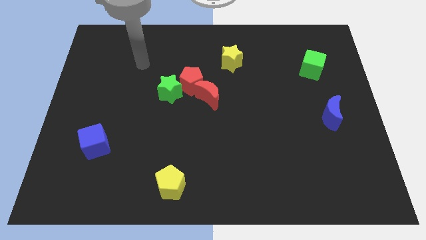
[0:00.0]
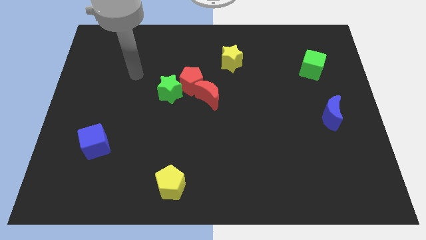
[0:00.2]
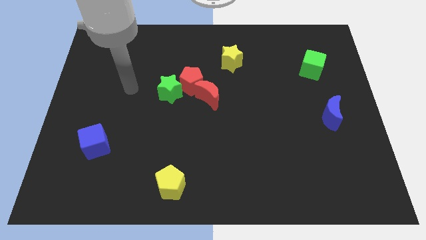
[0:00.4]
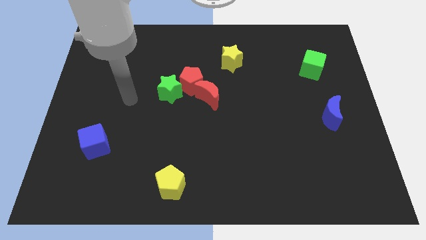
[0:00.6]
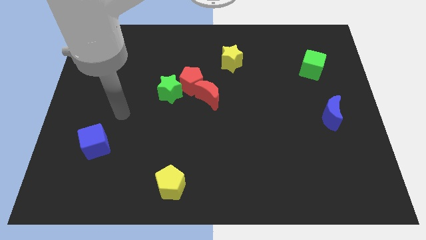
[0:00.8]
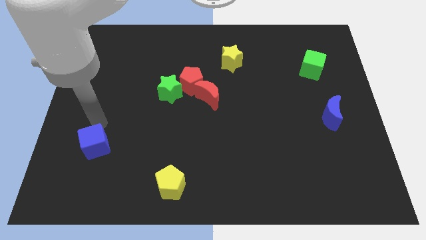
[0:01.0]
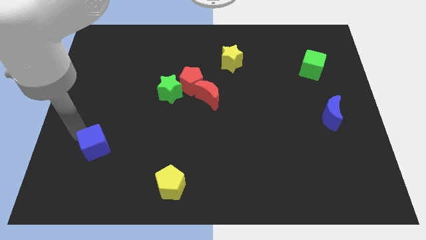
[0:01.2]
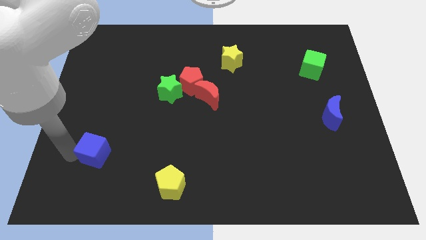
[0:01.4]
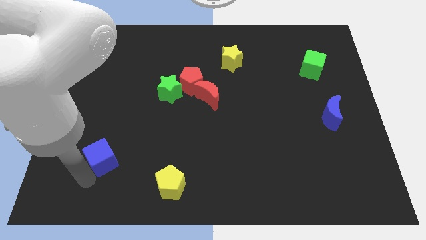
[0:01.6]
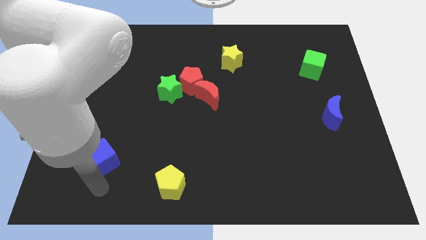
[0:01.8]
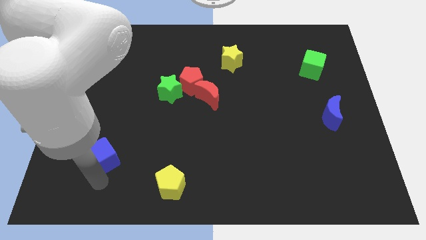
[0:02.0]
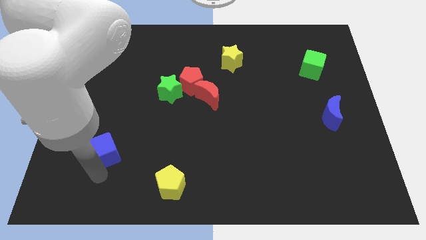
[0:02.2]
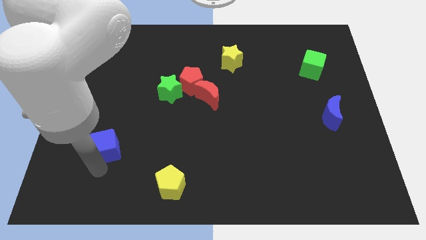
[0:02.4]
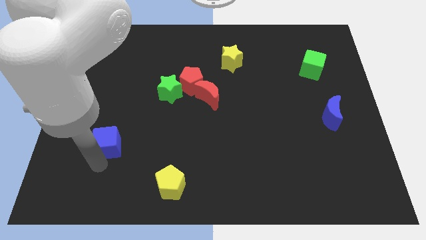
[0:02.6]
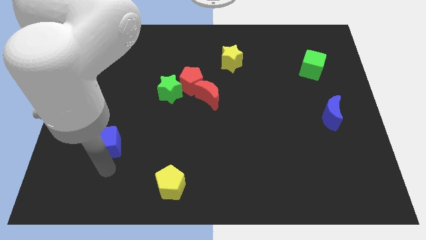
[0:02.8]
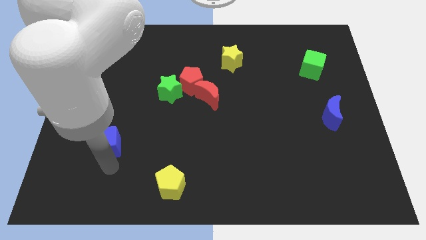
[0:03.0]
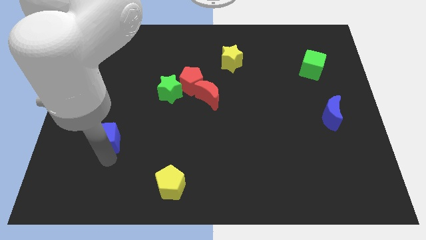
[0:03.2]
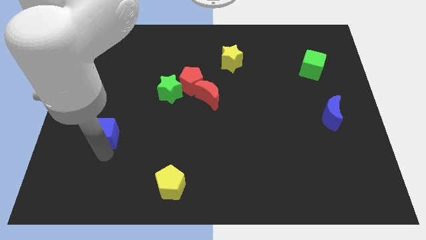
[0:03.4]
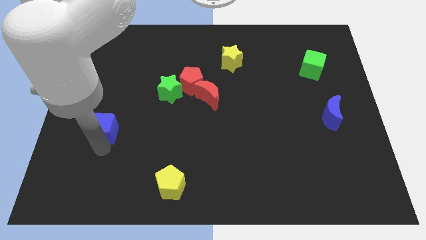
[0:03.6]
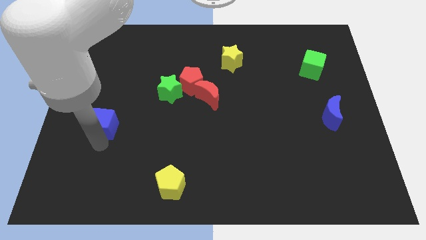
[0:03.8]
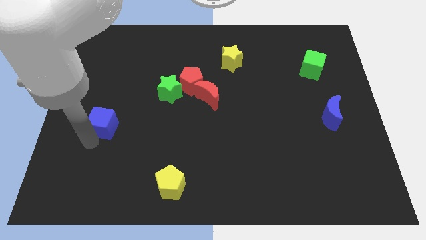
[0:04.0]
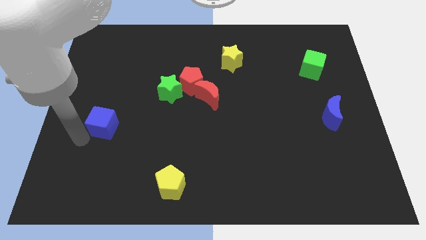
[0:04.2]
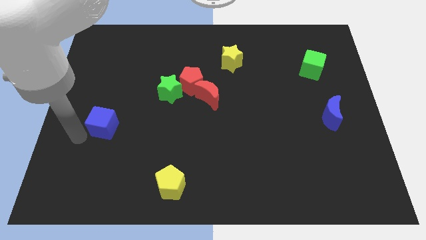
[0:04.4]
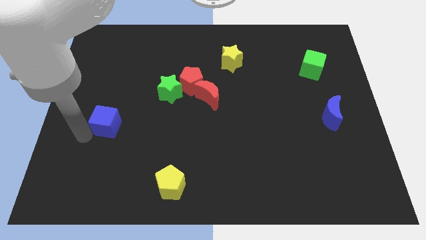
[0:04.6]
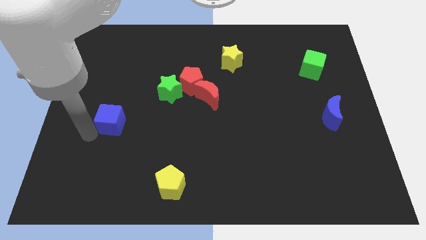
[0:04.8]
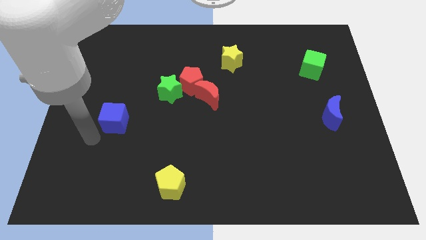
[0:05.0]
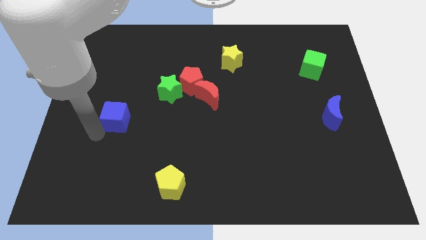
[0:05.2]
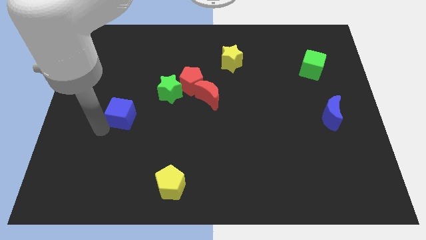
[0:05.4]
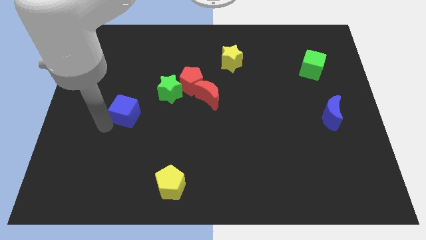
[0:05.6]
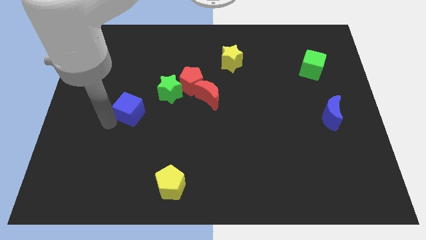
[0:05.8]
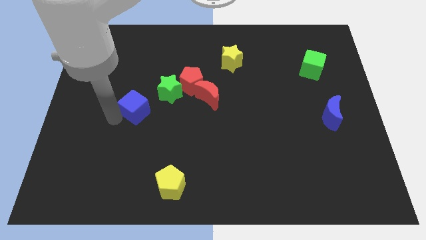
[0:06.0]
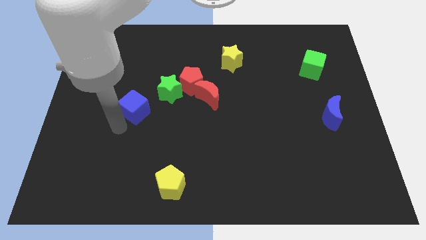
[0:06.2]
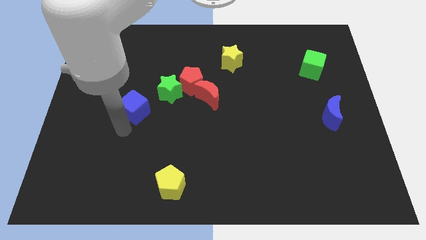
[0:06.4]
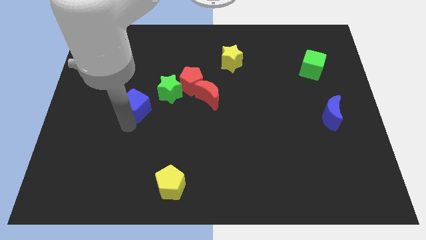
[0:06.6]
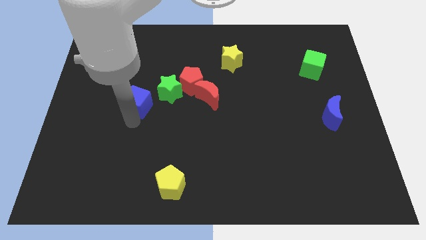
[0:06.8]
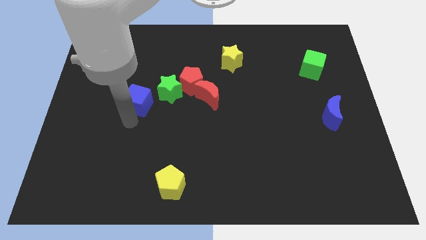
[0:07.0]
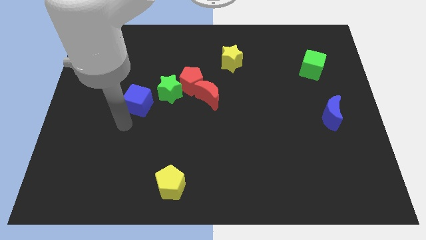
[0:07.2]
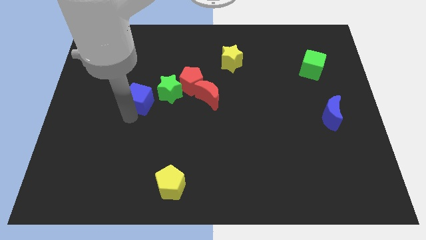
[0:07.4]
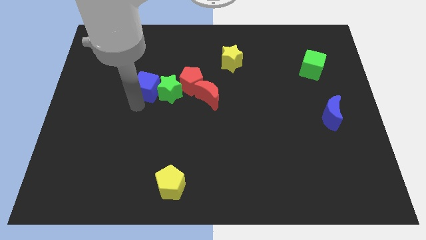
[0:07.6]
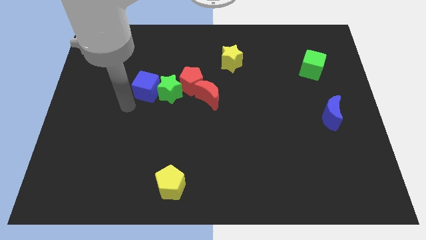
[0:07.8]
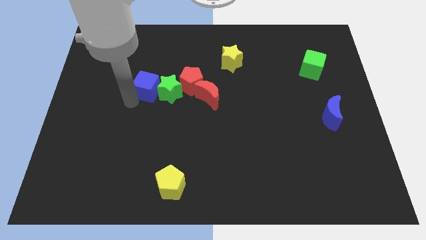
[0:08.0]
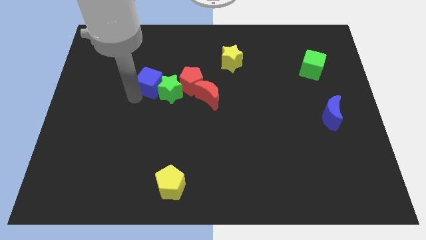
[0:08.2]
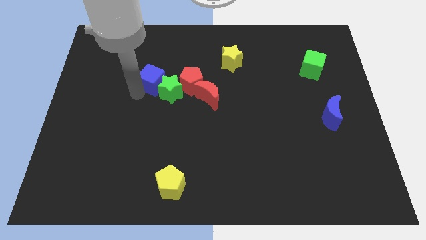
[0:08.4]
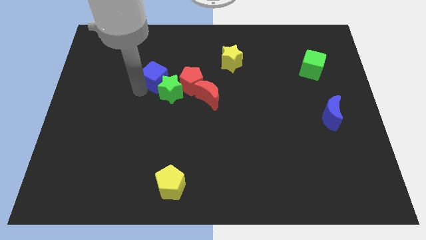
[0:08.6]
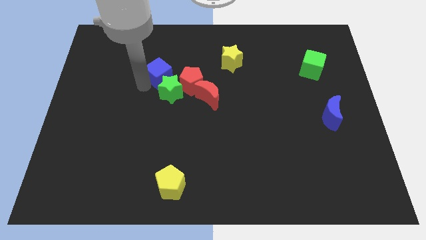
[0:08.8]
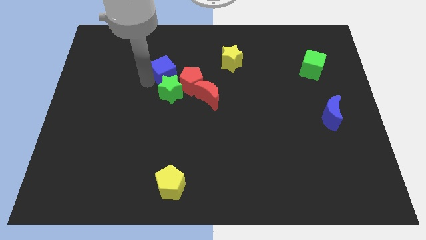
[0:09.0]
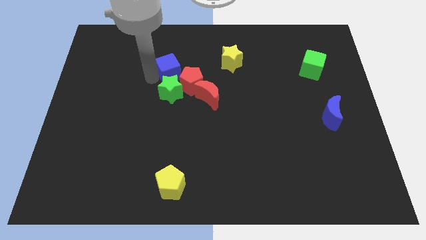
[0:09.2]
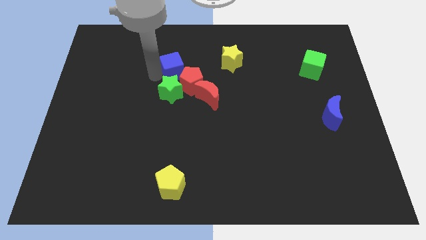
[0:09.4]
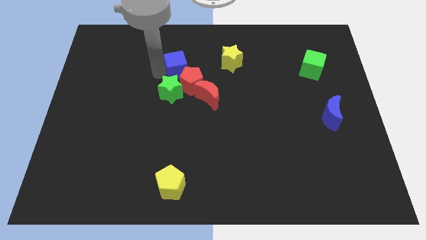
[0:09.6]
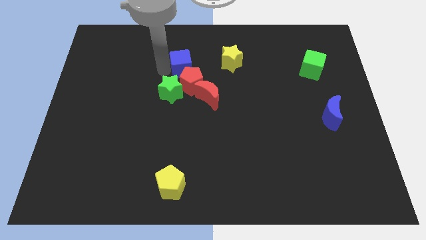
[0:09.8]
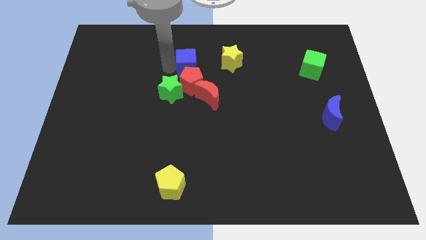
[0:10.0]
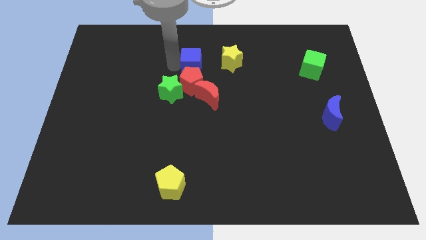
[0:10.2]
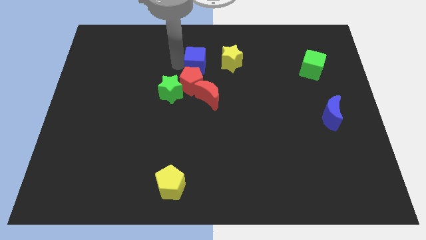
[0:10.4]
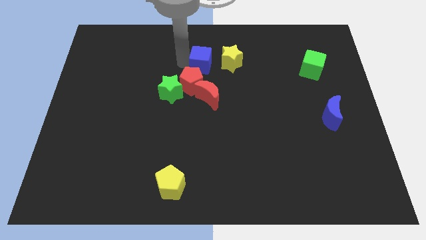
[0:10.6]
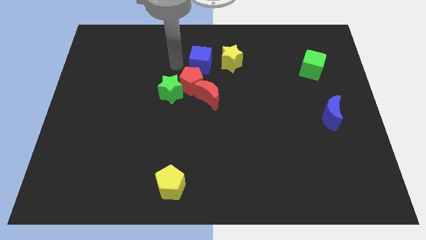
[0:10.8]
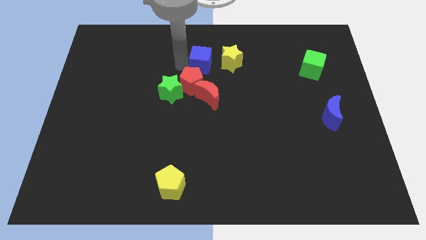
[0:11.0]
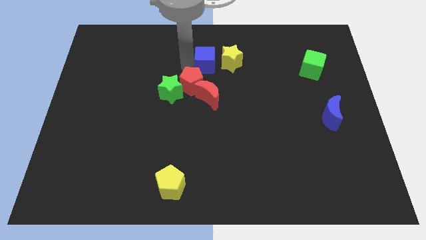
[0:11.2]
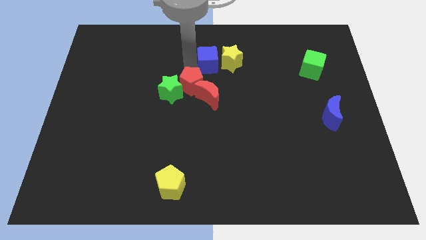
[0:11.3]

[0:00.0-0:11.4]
slide the blue cube next to the yellow star

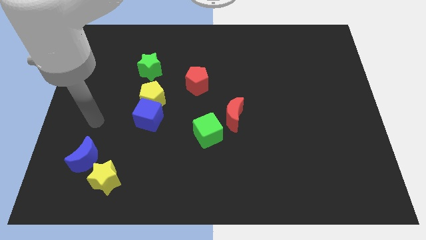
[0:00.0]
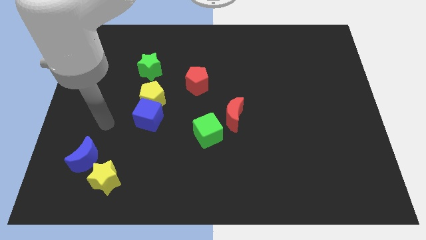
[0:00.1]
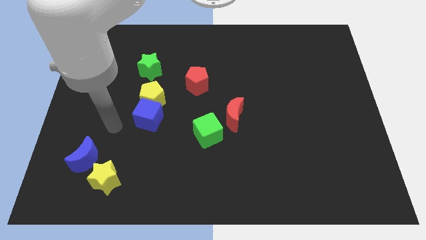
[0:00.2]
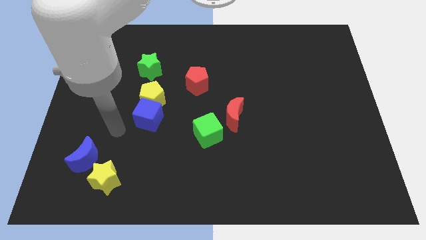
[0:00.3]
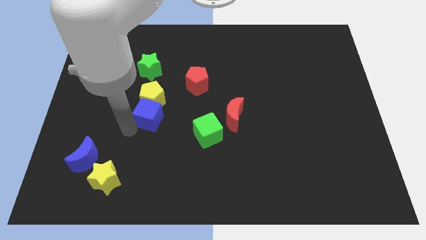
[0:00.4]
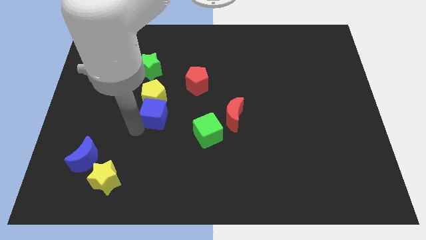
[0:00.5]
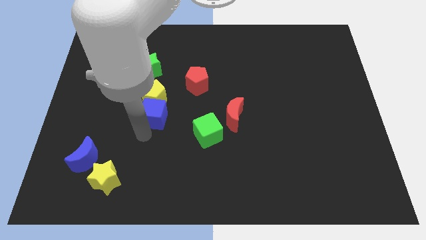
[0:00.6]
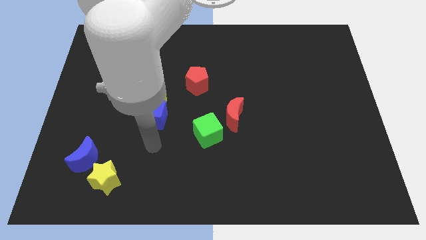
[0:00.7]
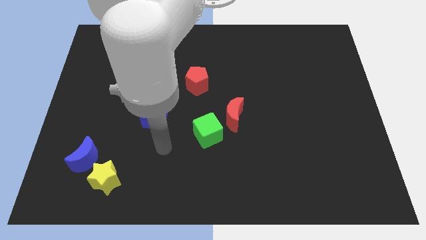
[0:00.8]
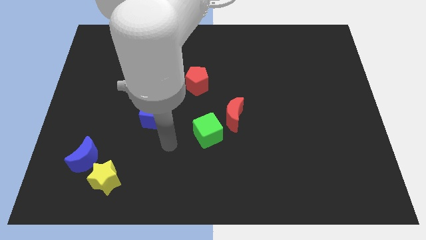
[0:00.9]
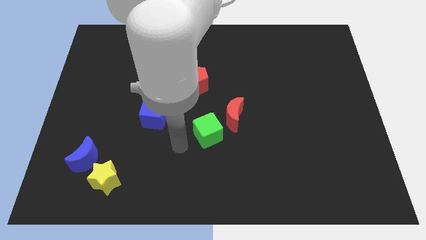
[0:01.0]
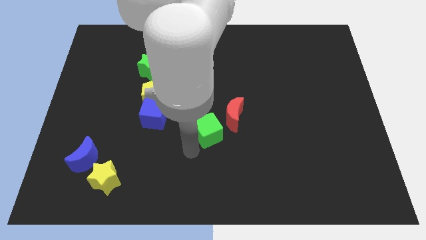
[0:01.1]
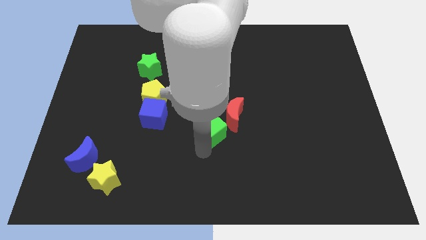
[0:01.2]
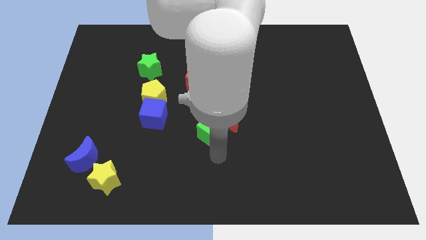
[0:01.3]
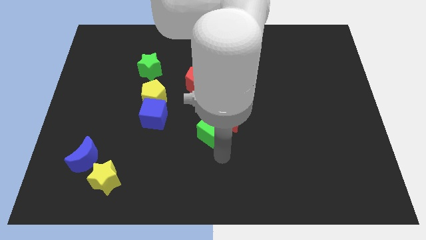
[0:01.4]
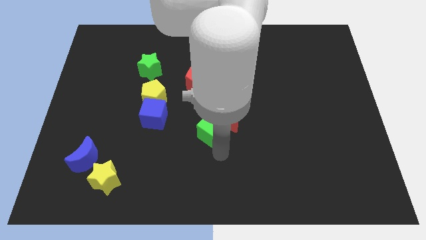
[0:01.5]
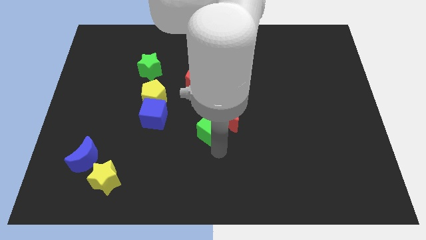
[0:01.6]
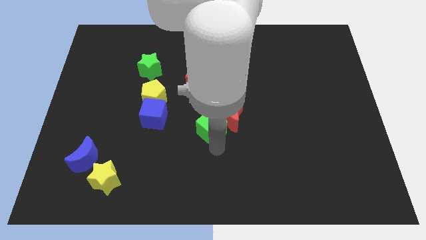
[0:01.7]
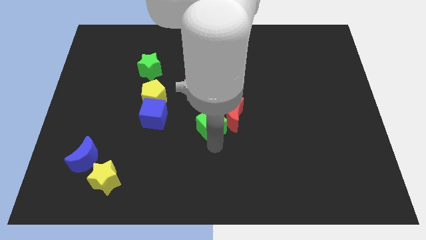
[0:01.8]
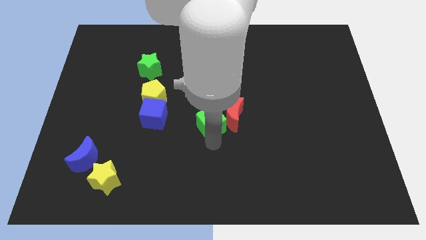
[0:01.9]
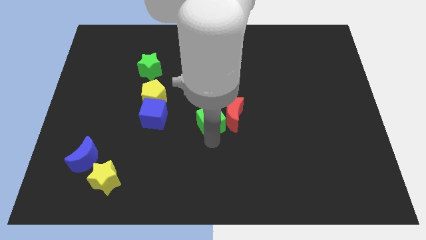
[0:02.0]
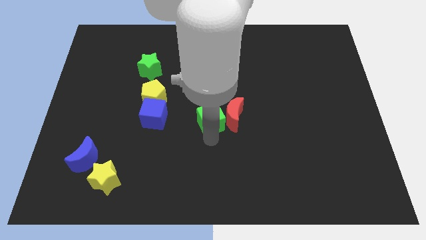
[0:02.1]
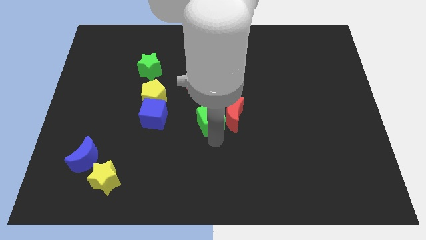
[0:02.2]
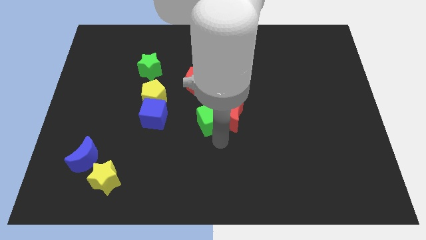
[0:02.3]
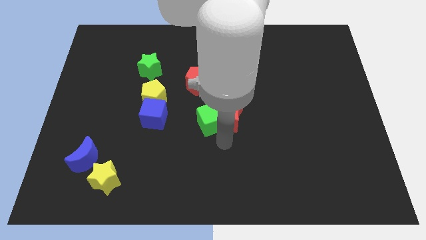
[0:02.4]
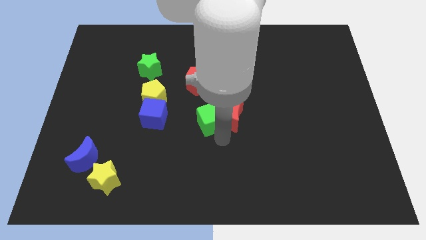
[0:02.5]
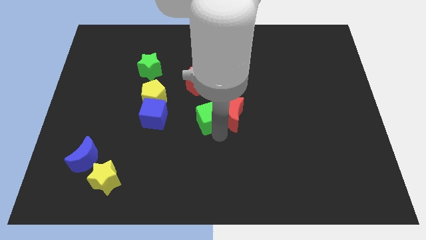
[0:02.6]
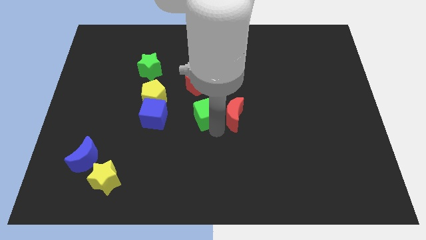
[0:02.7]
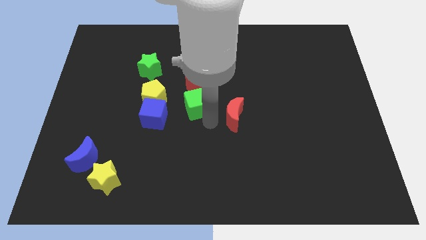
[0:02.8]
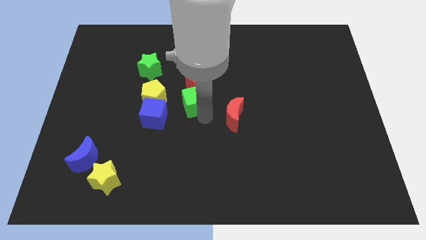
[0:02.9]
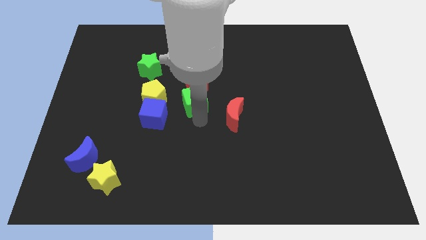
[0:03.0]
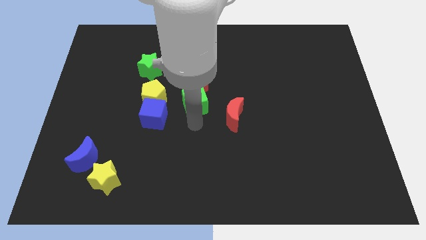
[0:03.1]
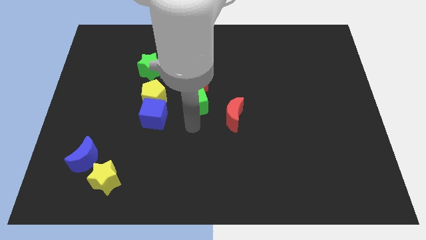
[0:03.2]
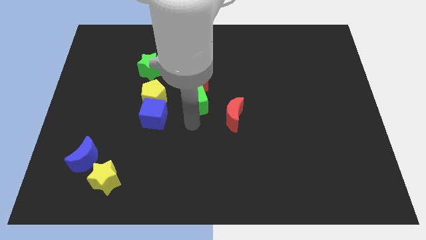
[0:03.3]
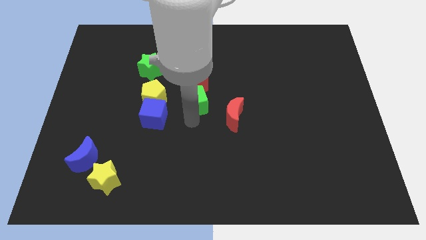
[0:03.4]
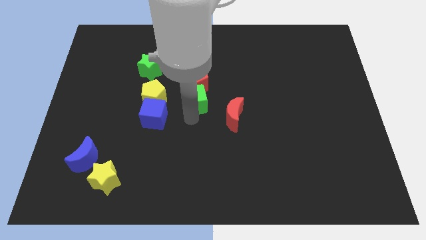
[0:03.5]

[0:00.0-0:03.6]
push the green cube towards the red pentagon
